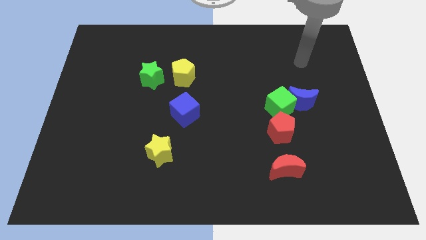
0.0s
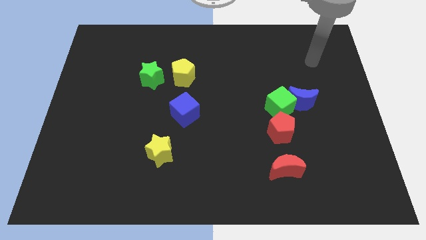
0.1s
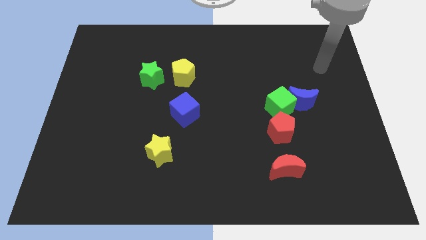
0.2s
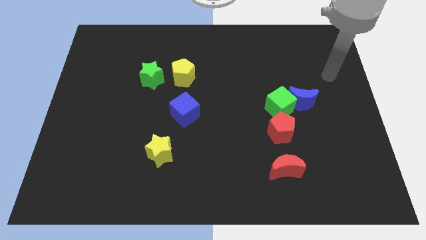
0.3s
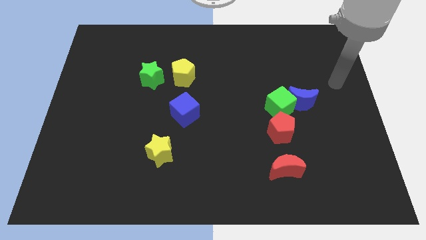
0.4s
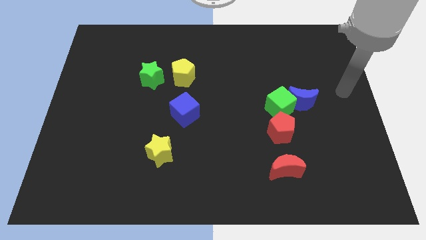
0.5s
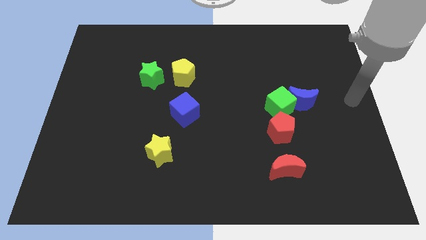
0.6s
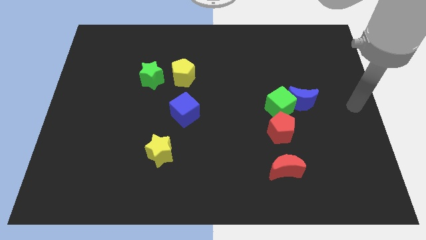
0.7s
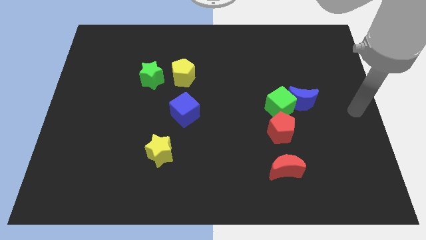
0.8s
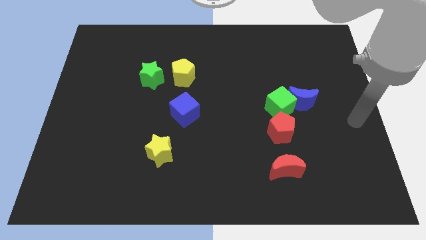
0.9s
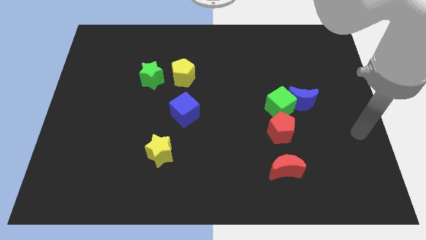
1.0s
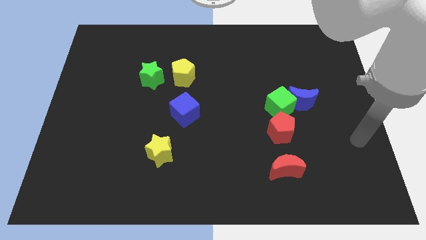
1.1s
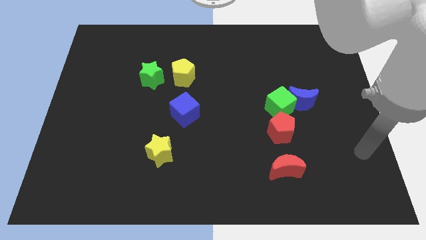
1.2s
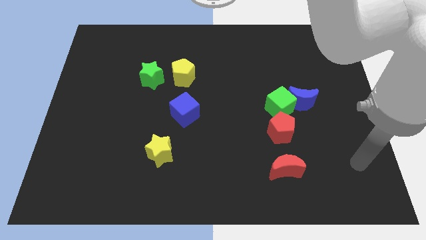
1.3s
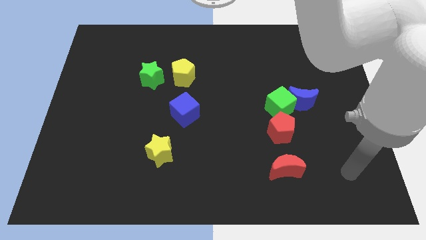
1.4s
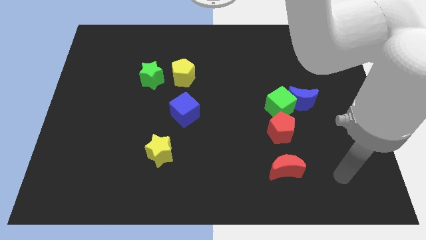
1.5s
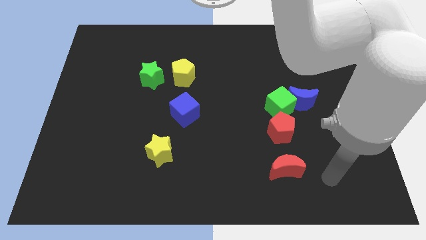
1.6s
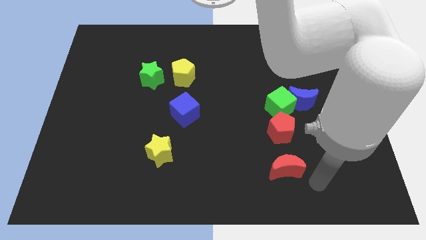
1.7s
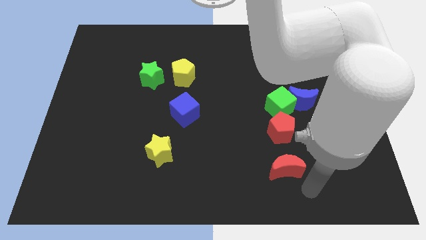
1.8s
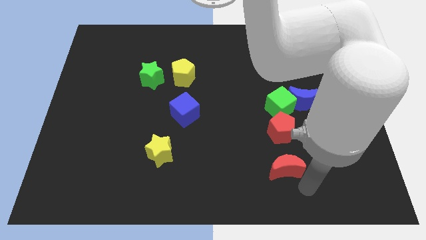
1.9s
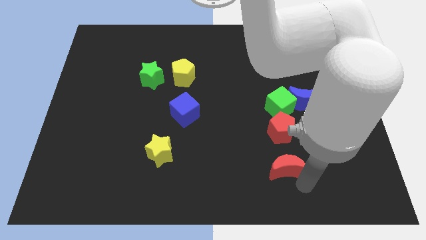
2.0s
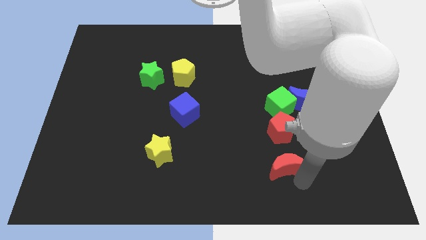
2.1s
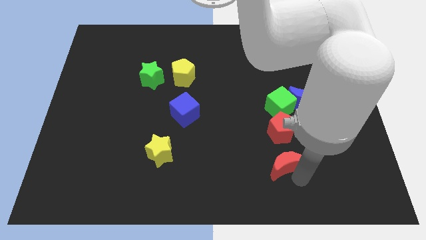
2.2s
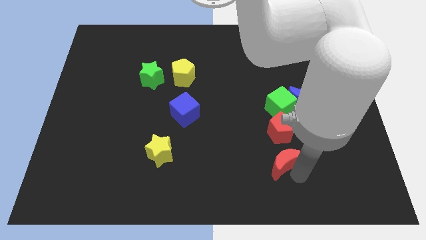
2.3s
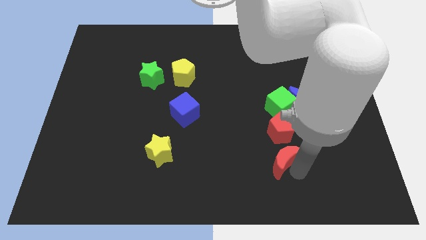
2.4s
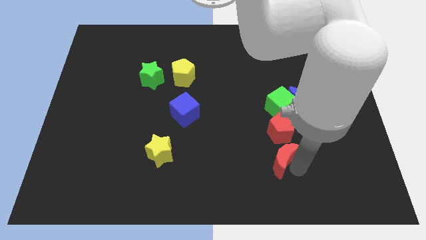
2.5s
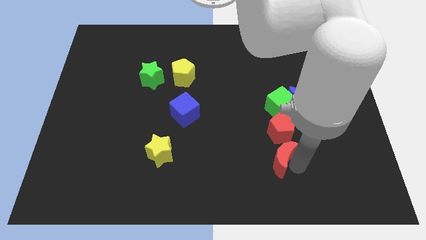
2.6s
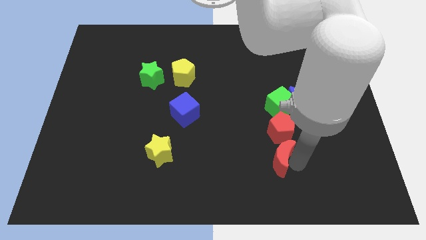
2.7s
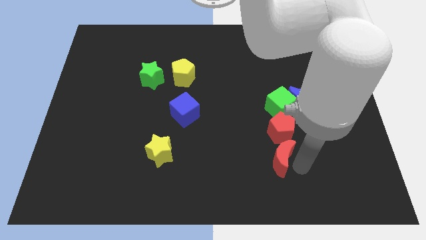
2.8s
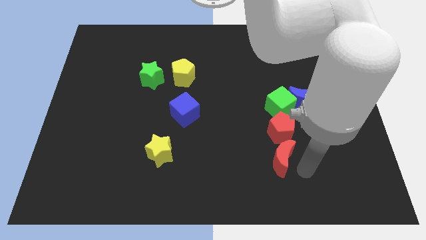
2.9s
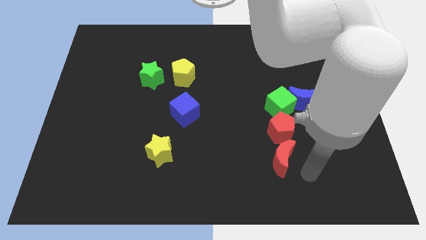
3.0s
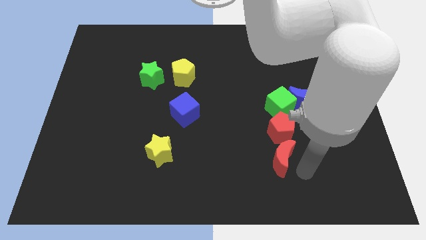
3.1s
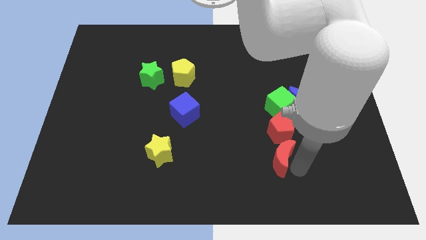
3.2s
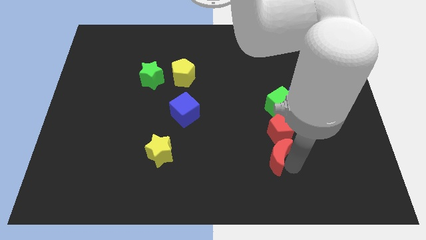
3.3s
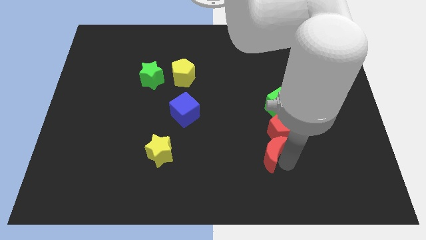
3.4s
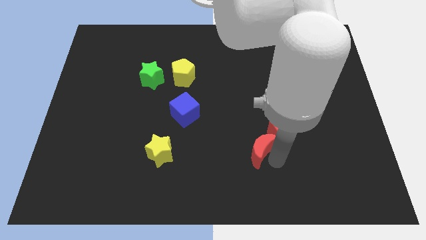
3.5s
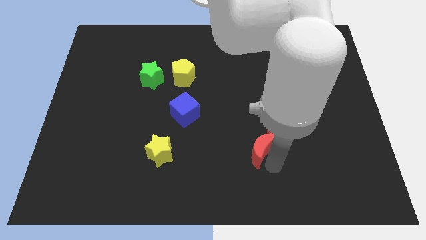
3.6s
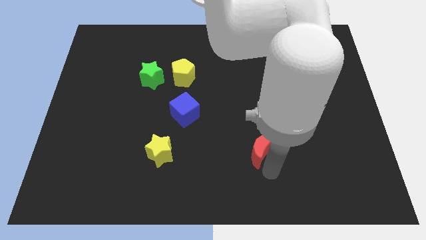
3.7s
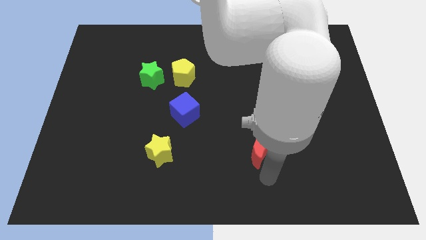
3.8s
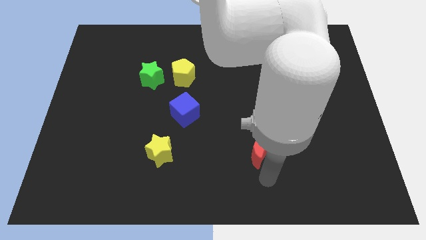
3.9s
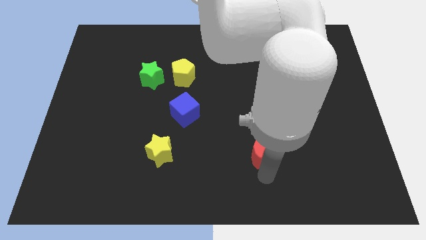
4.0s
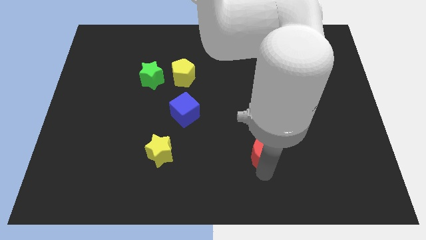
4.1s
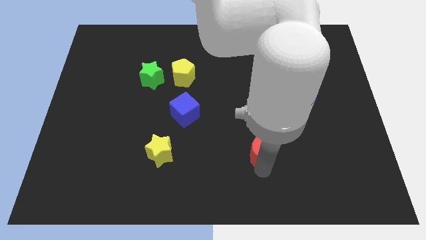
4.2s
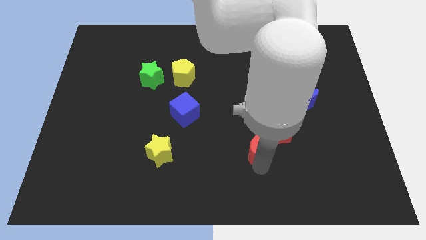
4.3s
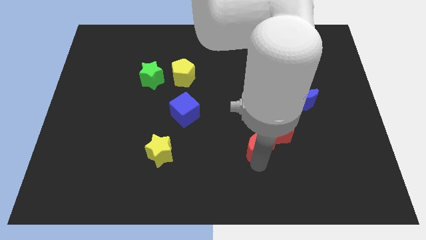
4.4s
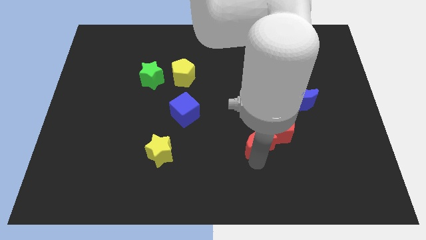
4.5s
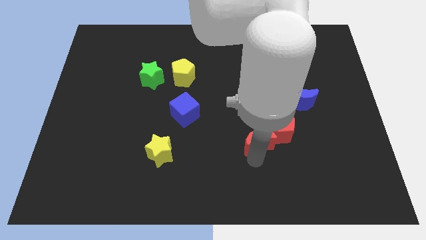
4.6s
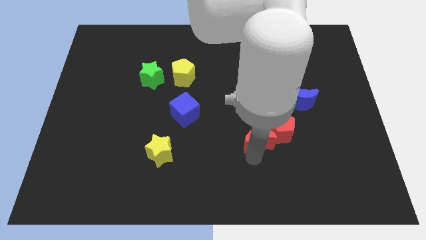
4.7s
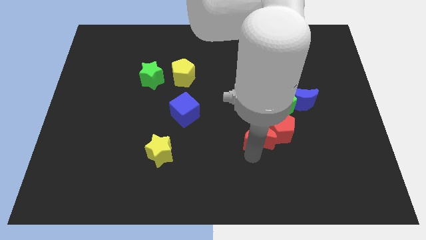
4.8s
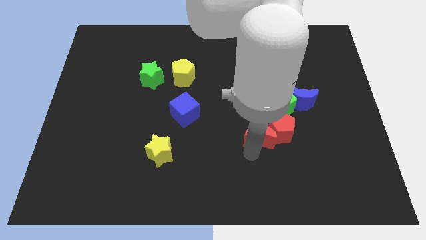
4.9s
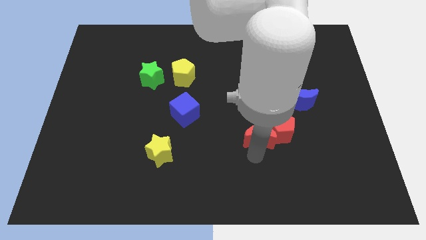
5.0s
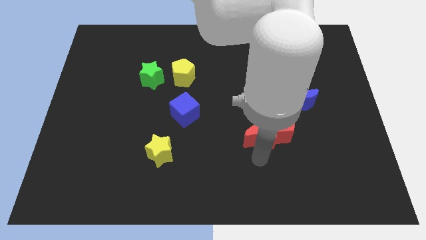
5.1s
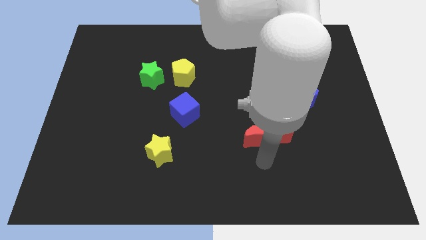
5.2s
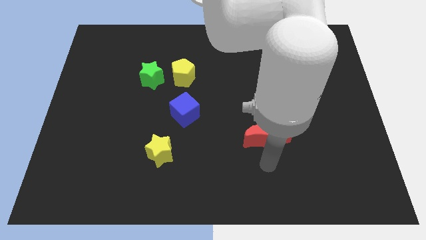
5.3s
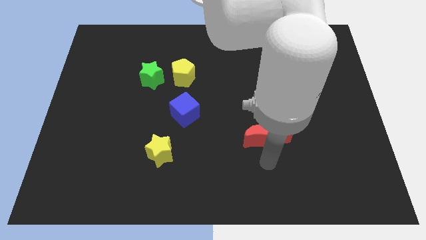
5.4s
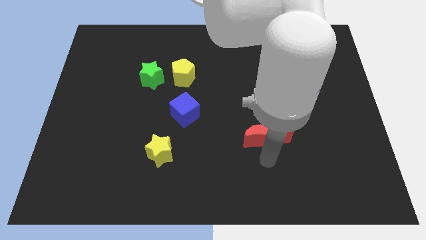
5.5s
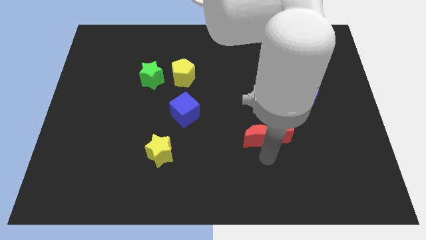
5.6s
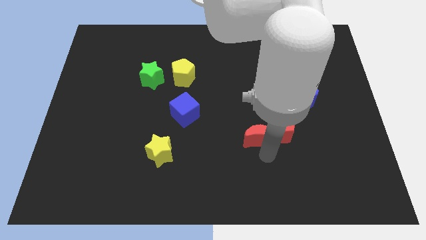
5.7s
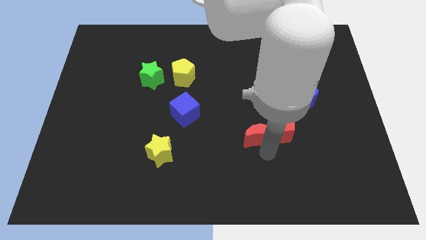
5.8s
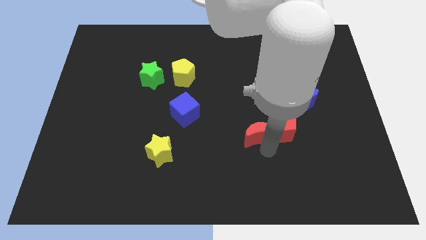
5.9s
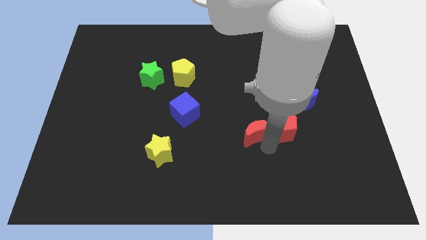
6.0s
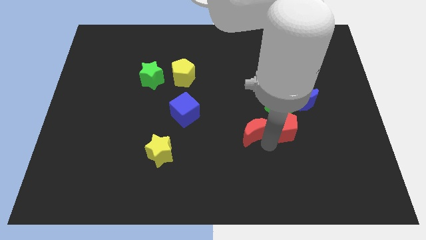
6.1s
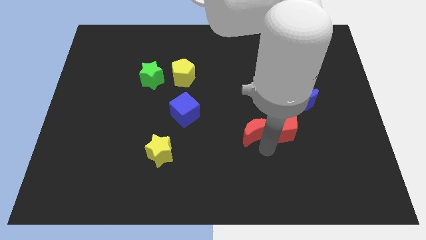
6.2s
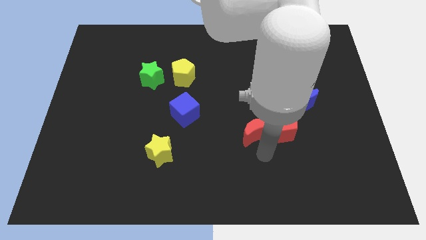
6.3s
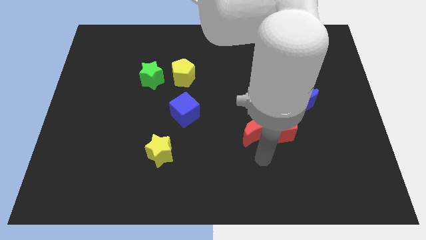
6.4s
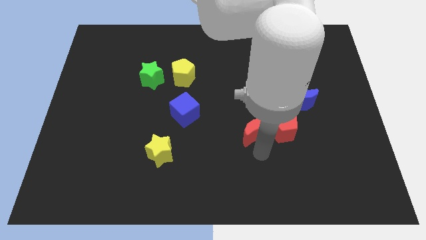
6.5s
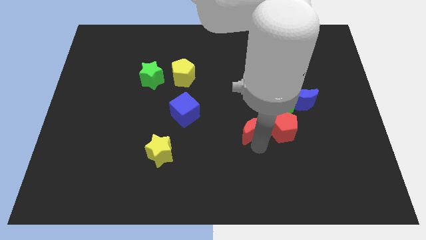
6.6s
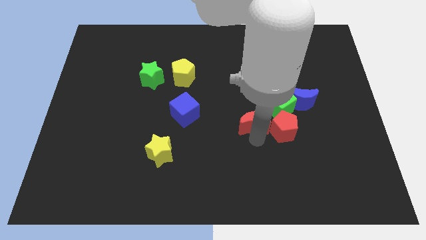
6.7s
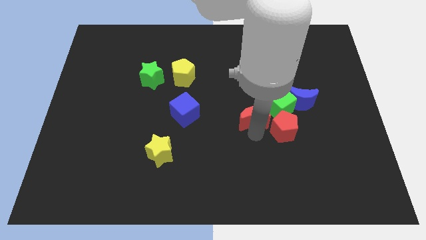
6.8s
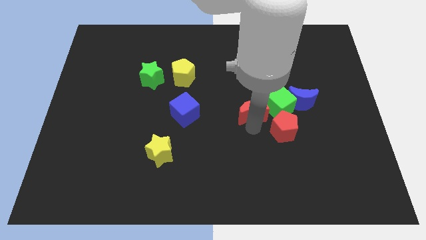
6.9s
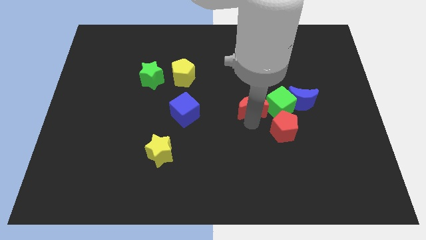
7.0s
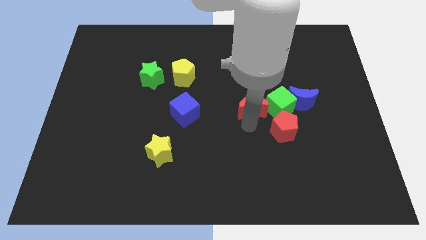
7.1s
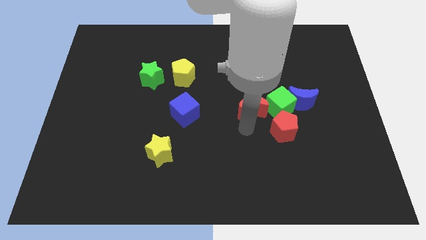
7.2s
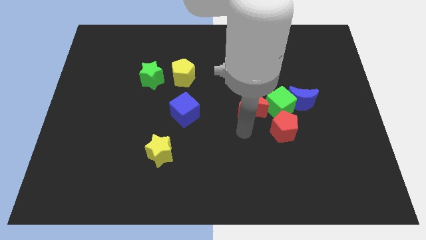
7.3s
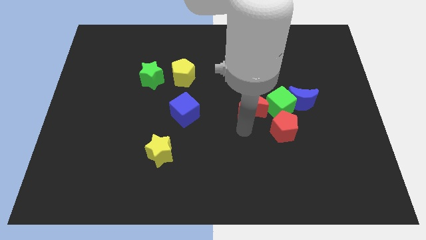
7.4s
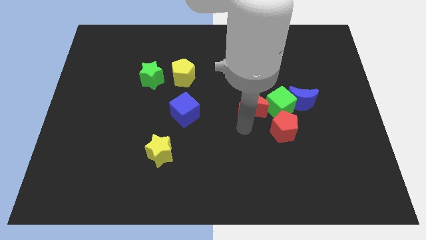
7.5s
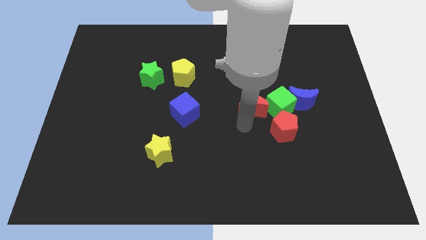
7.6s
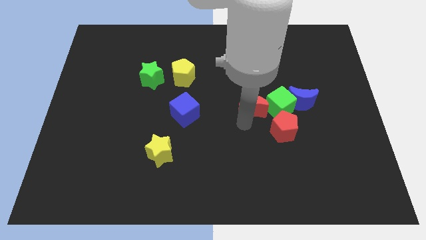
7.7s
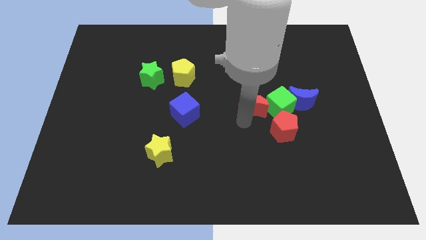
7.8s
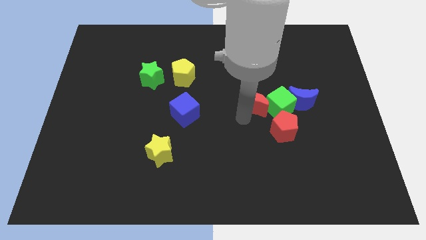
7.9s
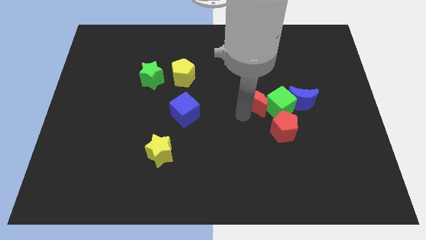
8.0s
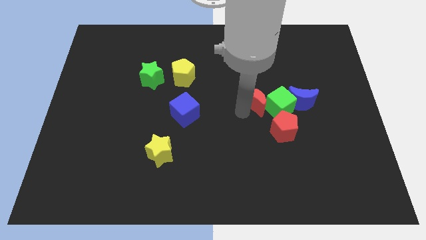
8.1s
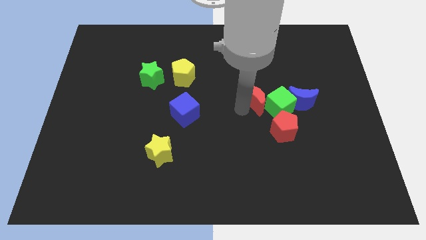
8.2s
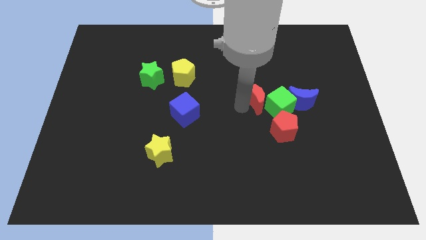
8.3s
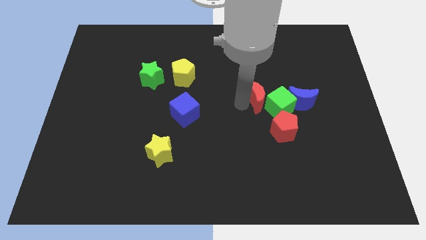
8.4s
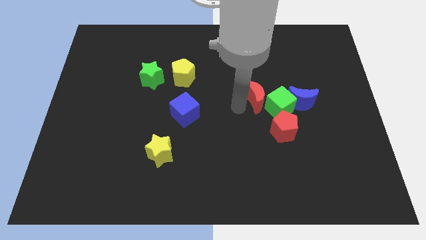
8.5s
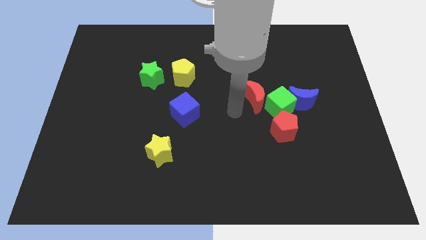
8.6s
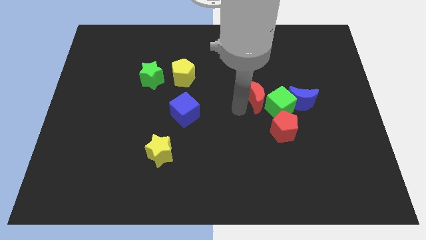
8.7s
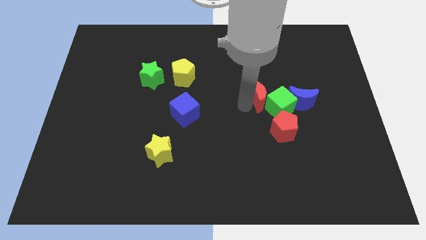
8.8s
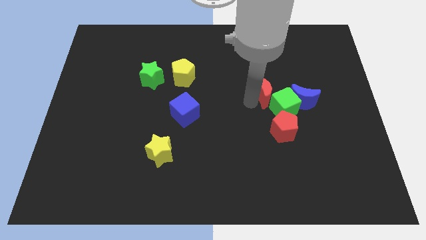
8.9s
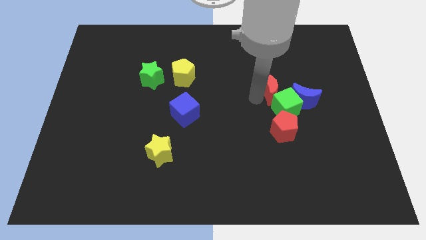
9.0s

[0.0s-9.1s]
move the red moon diagonally up and to the left of the blue moon
